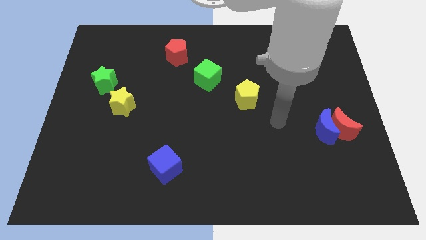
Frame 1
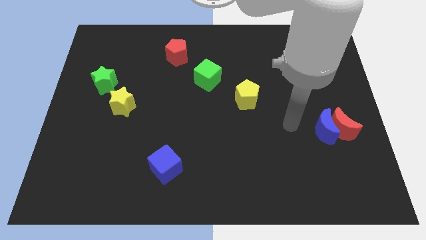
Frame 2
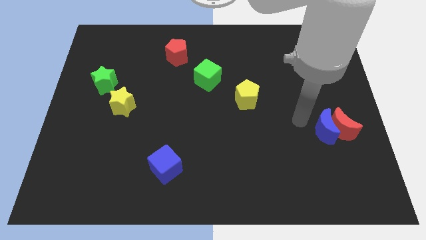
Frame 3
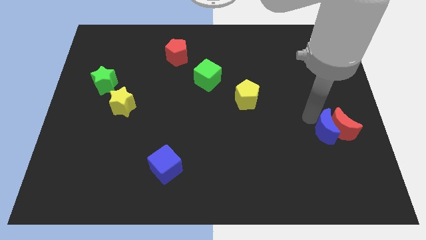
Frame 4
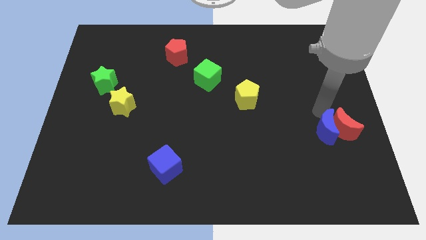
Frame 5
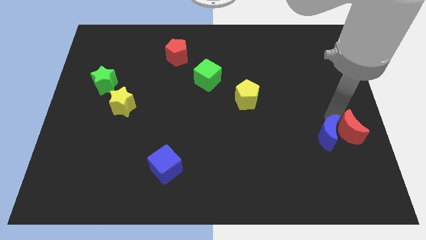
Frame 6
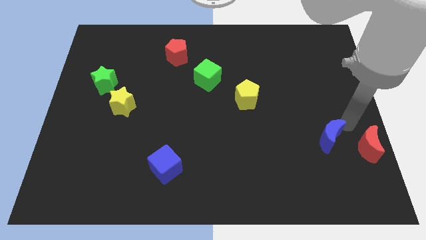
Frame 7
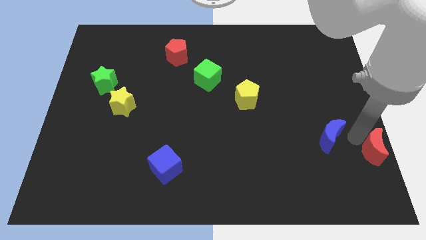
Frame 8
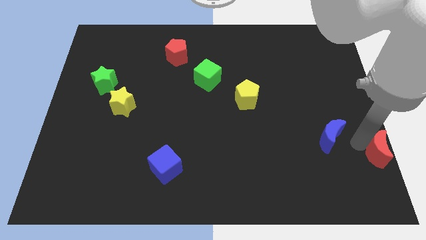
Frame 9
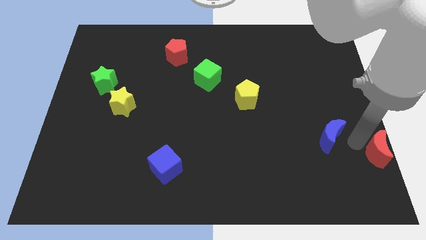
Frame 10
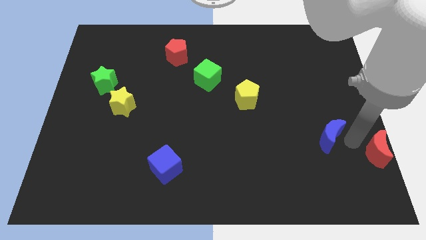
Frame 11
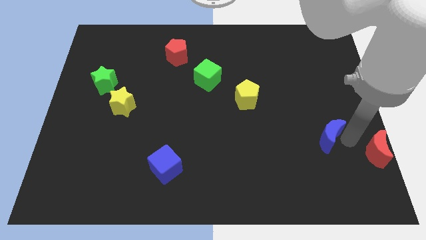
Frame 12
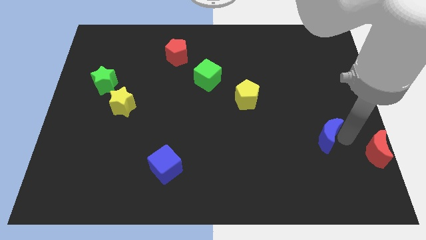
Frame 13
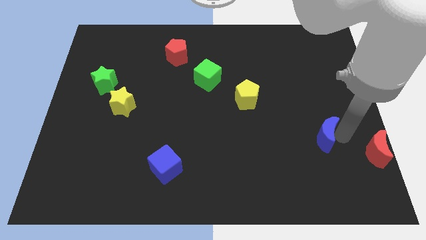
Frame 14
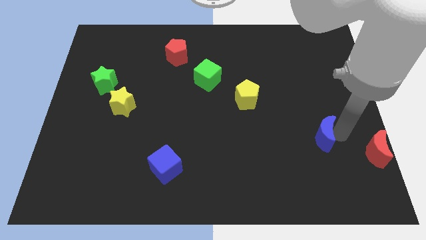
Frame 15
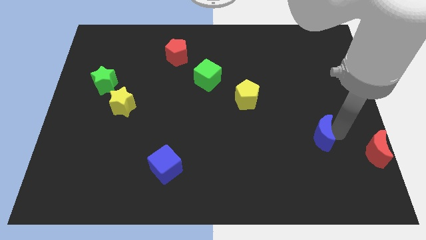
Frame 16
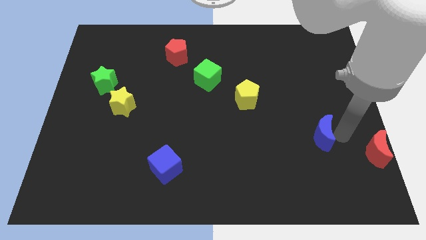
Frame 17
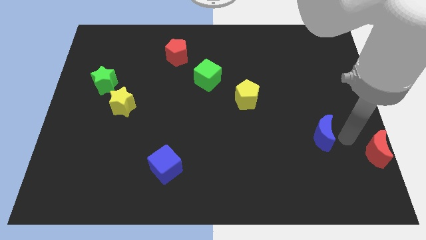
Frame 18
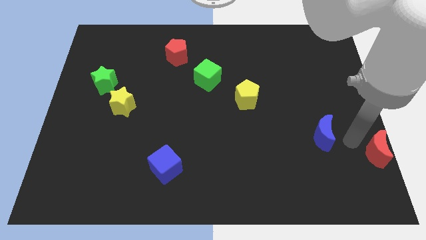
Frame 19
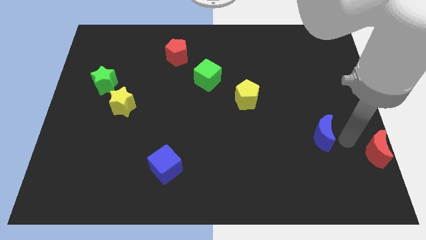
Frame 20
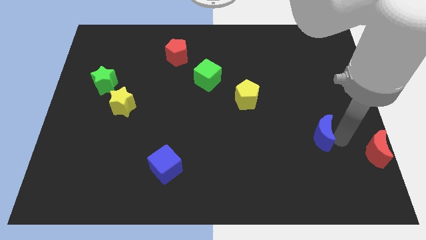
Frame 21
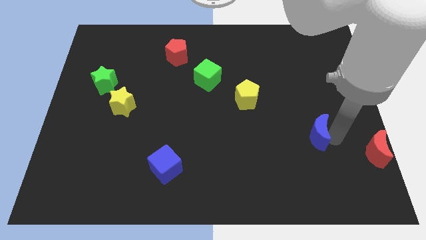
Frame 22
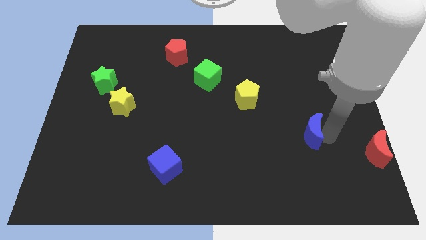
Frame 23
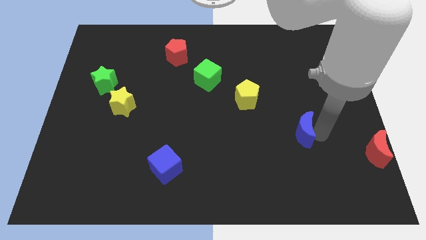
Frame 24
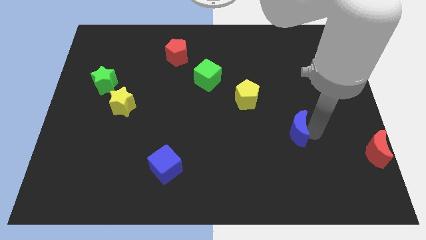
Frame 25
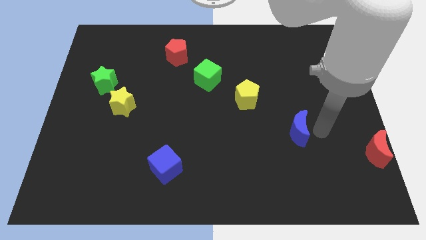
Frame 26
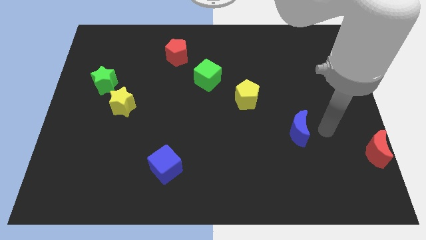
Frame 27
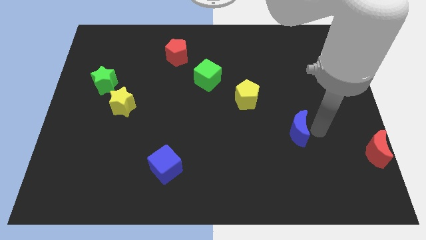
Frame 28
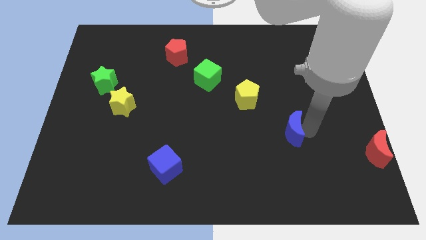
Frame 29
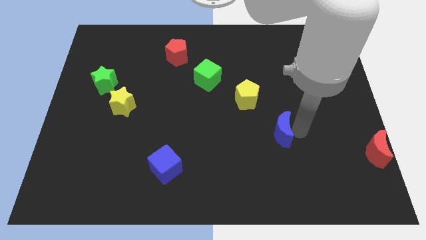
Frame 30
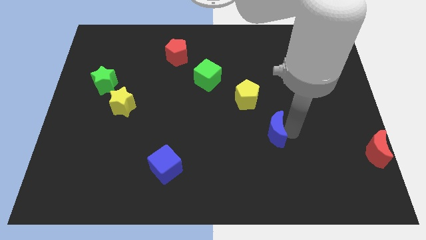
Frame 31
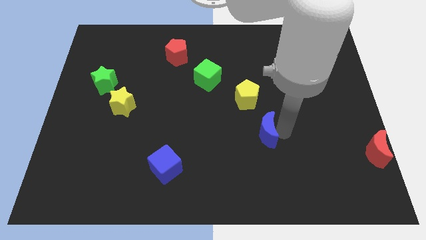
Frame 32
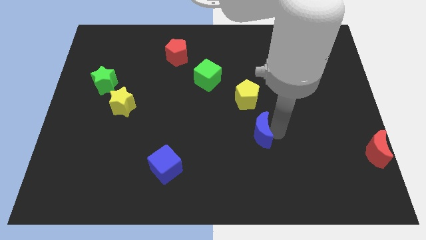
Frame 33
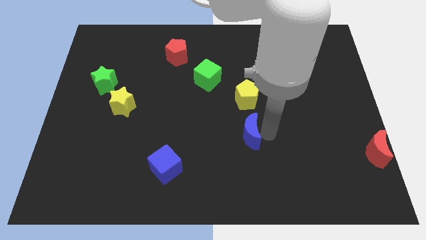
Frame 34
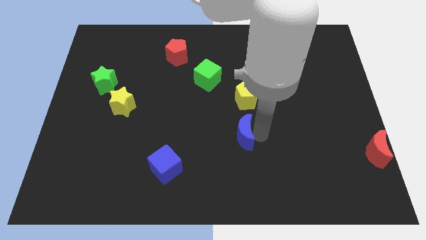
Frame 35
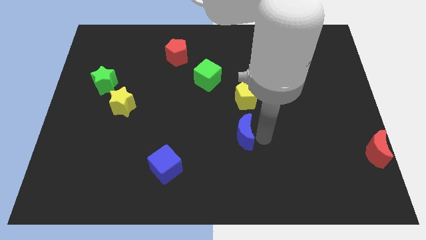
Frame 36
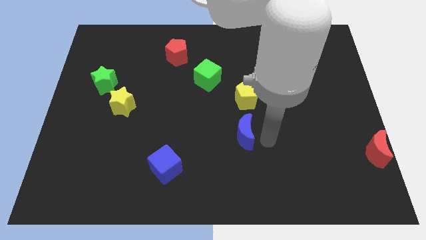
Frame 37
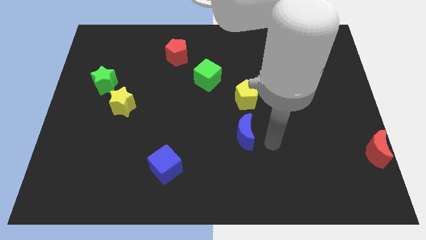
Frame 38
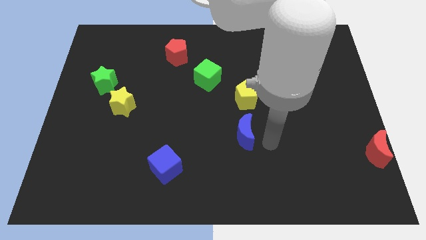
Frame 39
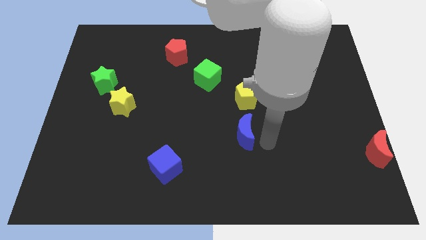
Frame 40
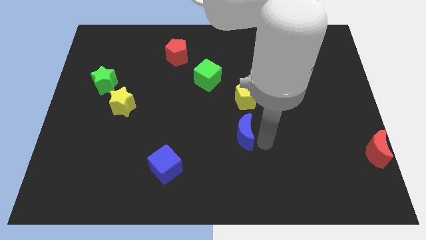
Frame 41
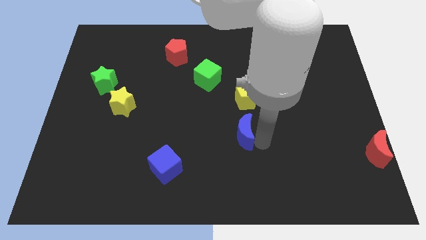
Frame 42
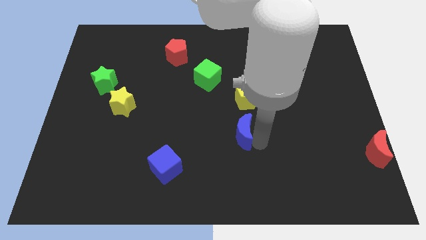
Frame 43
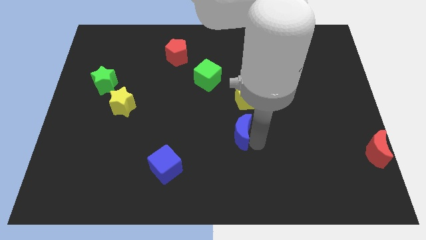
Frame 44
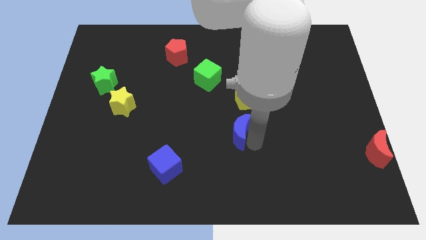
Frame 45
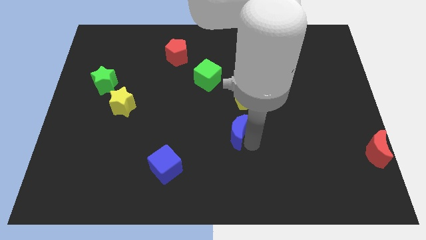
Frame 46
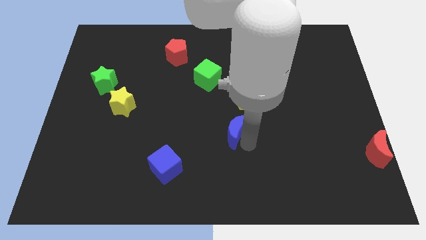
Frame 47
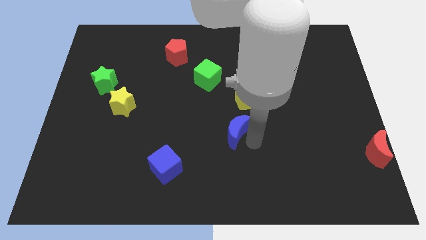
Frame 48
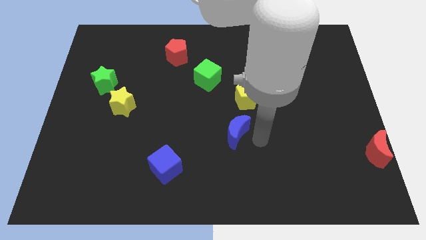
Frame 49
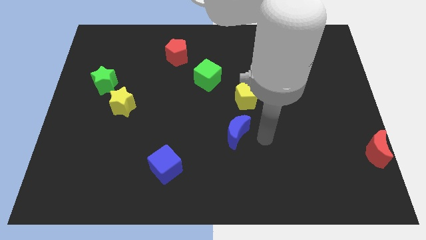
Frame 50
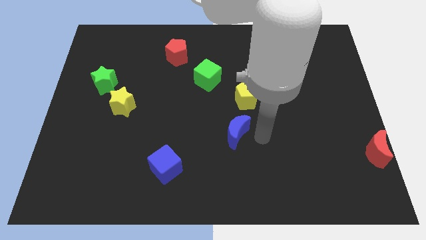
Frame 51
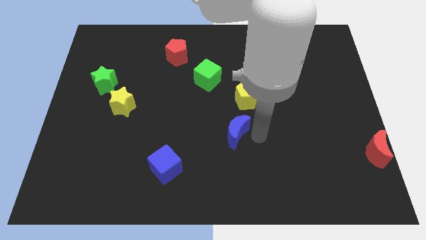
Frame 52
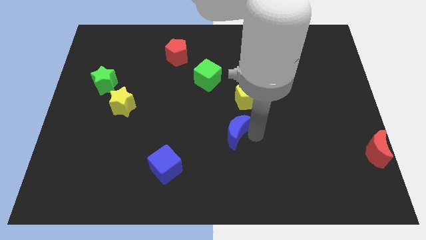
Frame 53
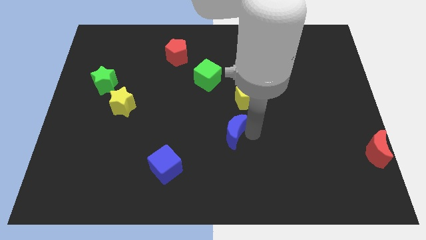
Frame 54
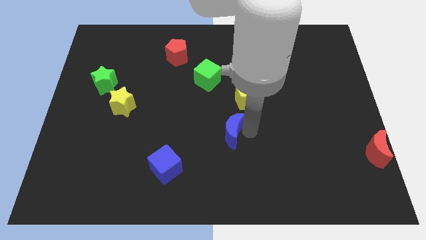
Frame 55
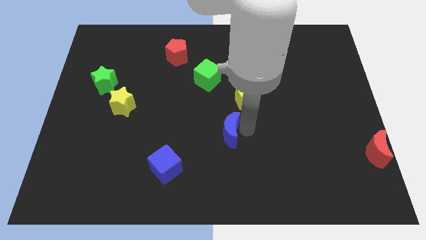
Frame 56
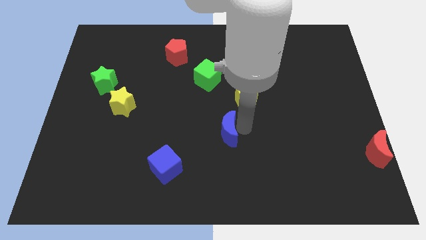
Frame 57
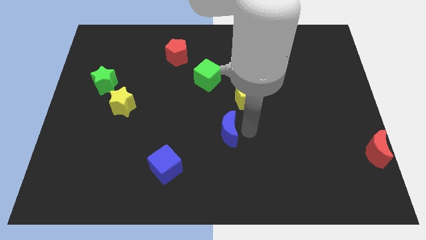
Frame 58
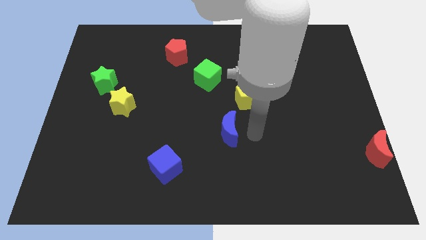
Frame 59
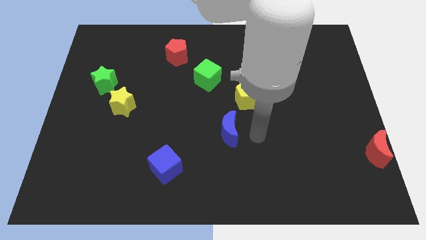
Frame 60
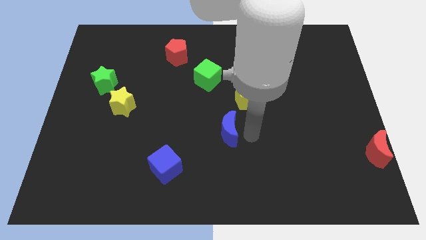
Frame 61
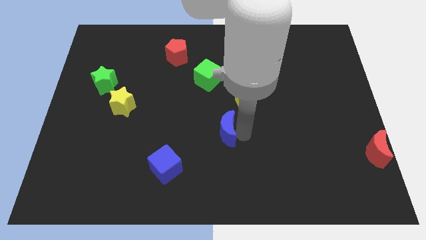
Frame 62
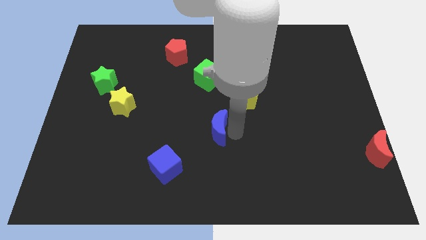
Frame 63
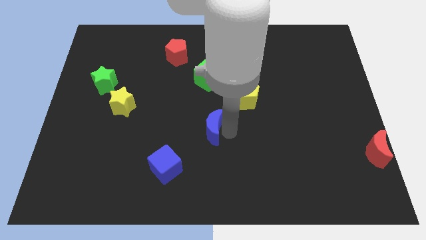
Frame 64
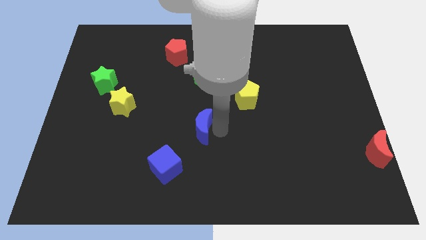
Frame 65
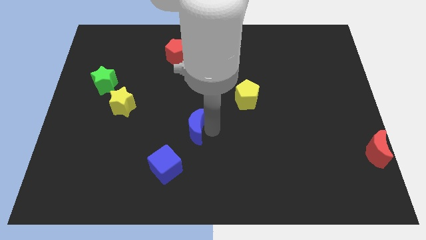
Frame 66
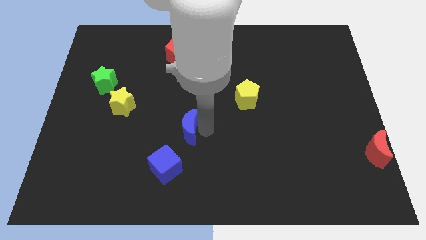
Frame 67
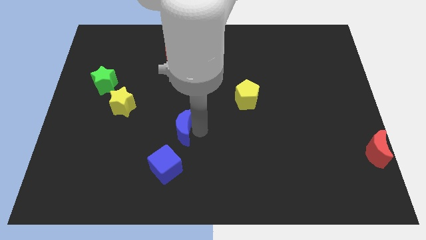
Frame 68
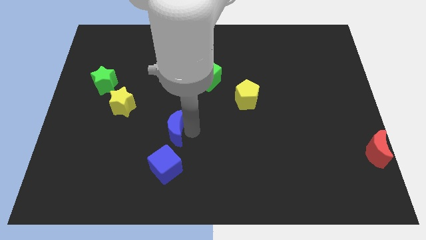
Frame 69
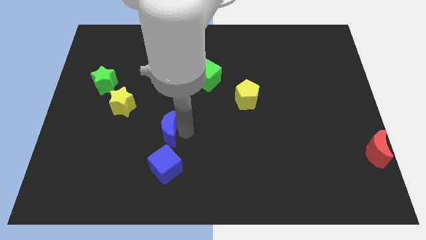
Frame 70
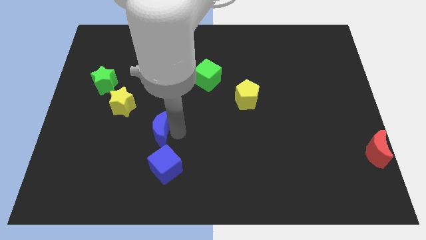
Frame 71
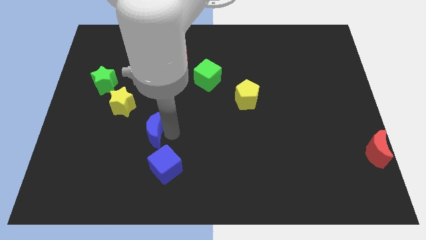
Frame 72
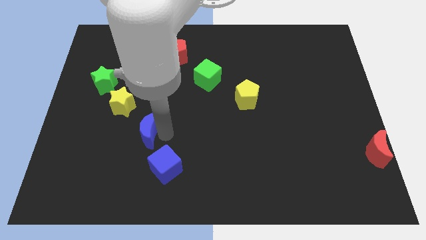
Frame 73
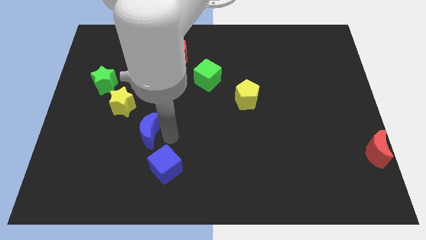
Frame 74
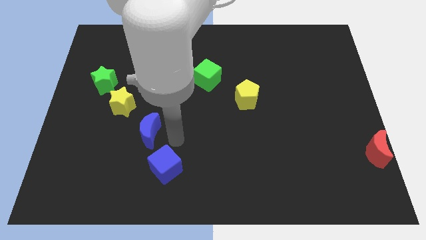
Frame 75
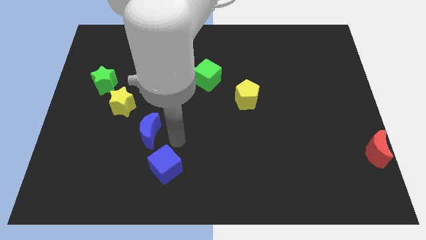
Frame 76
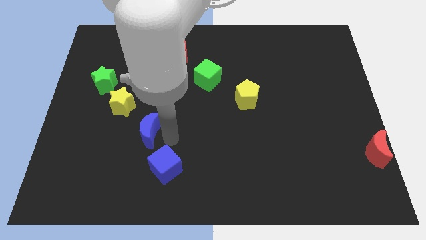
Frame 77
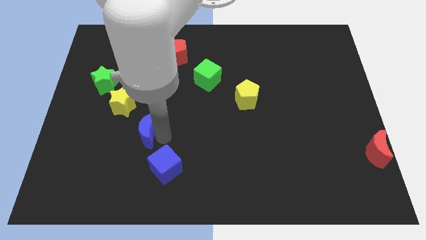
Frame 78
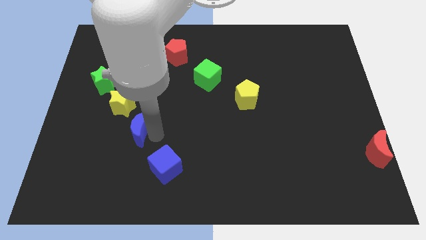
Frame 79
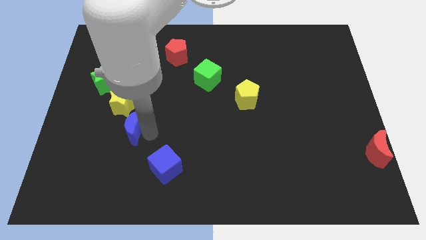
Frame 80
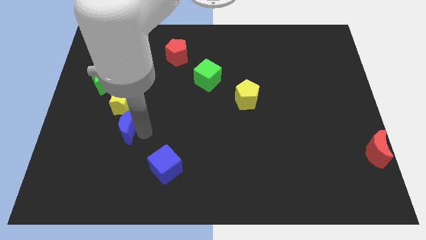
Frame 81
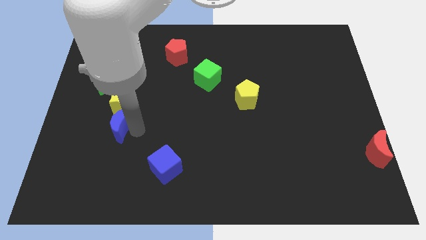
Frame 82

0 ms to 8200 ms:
push the blue moon diagonally down and to the left of the yellow star
